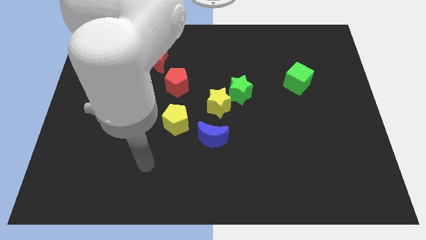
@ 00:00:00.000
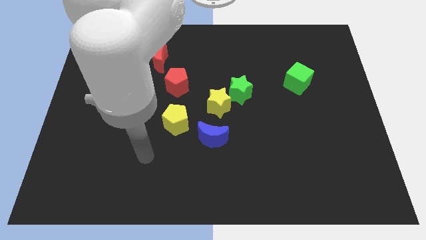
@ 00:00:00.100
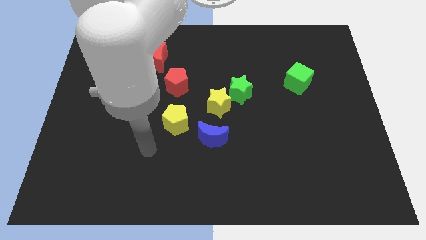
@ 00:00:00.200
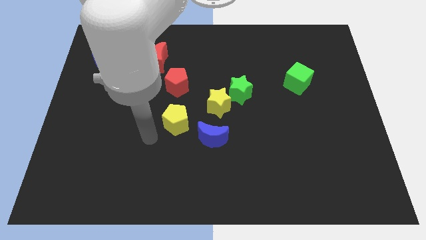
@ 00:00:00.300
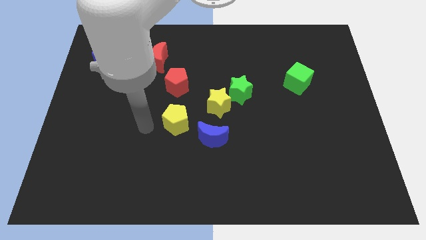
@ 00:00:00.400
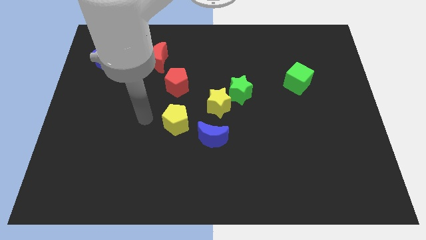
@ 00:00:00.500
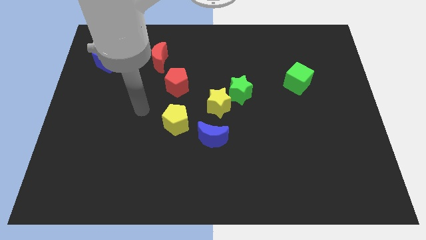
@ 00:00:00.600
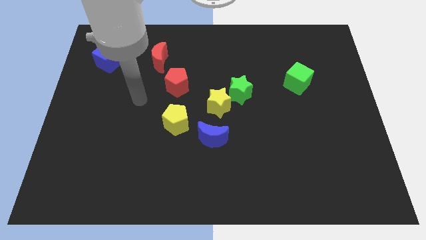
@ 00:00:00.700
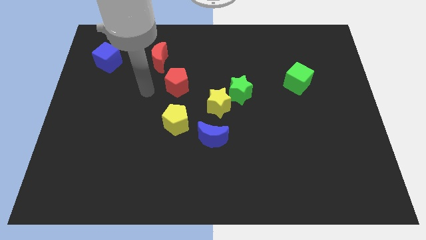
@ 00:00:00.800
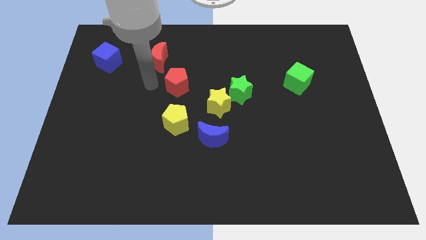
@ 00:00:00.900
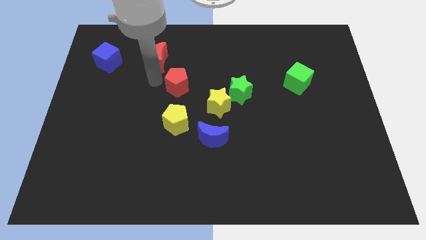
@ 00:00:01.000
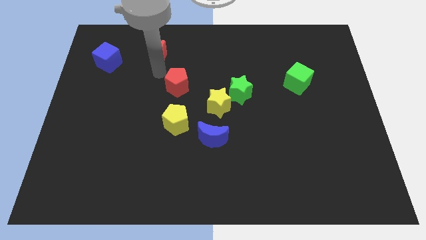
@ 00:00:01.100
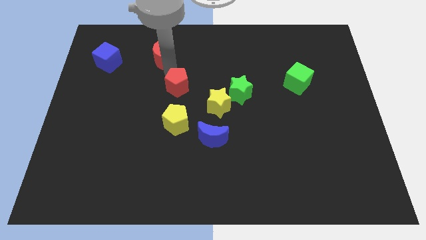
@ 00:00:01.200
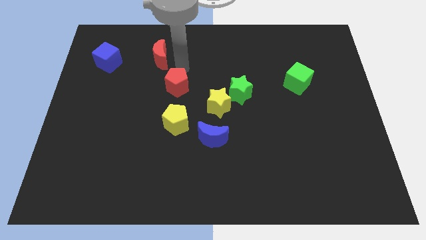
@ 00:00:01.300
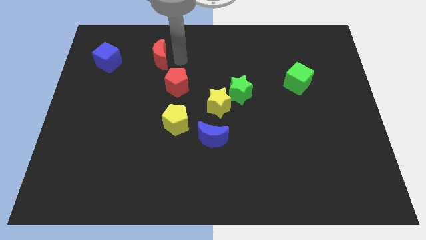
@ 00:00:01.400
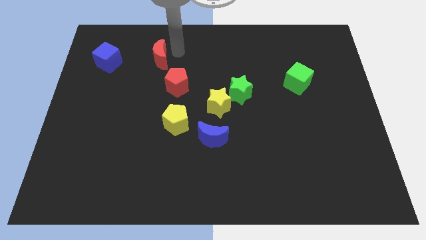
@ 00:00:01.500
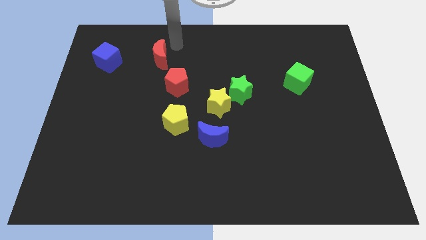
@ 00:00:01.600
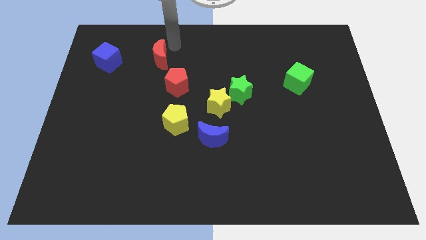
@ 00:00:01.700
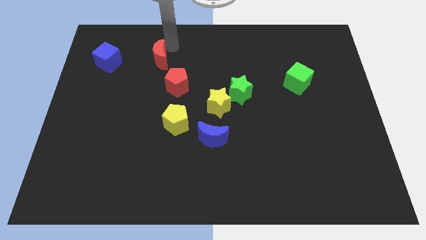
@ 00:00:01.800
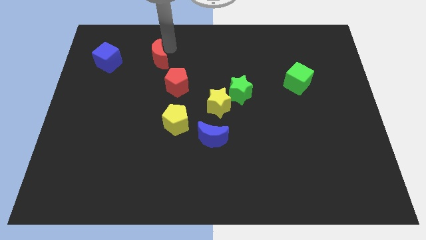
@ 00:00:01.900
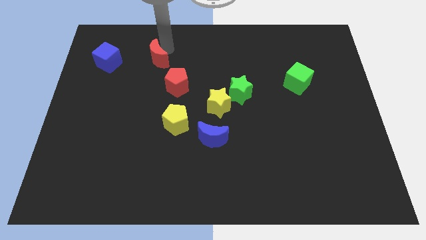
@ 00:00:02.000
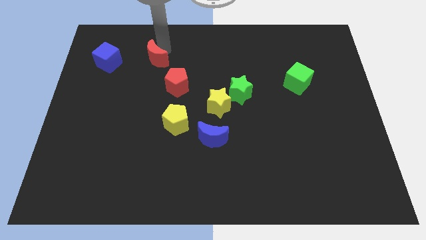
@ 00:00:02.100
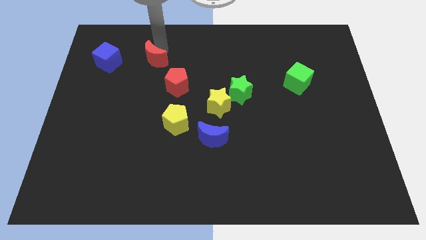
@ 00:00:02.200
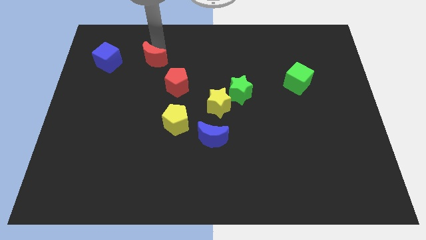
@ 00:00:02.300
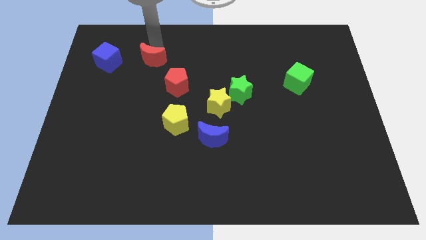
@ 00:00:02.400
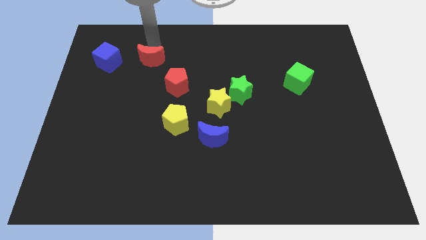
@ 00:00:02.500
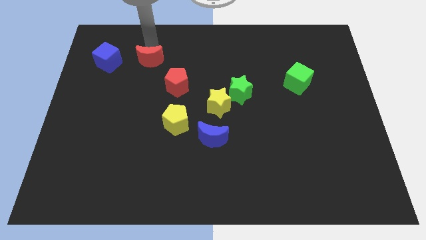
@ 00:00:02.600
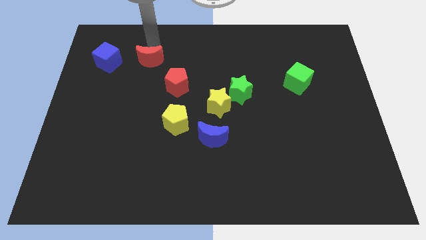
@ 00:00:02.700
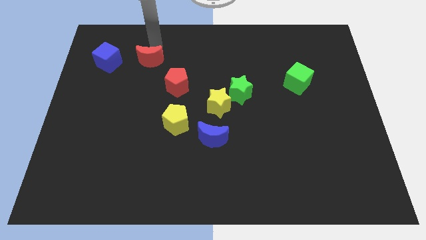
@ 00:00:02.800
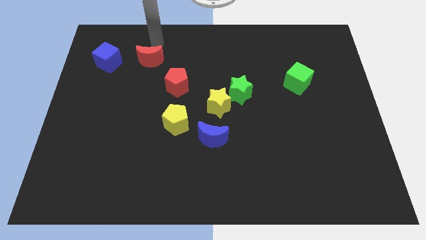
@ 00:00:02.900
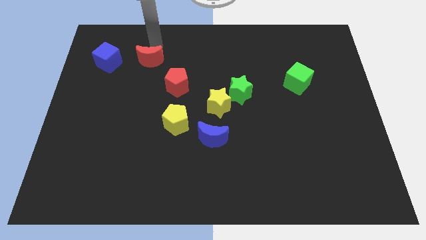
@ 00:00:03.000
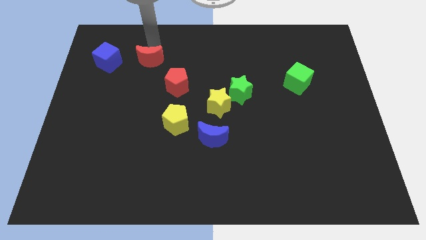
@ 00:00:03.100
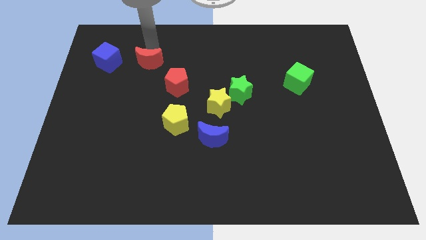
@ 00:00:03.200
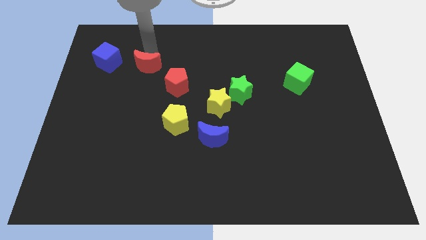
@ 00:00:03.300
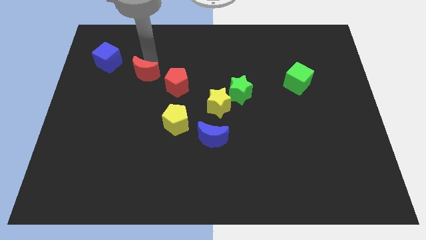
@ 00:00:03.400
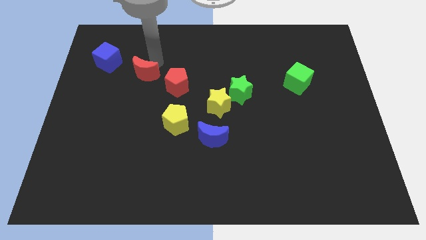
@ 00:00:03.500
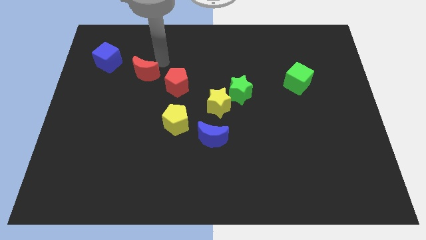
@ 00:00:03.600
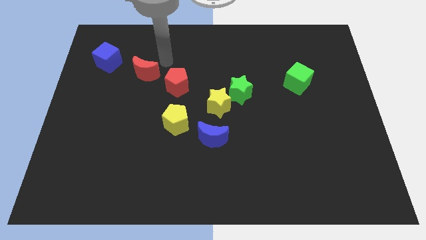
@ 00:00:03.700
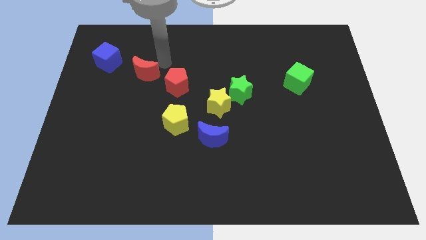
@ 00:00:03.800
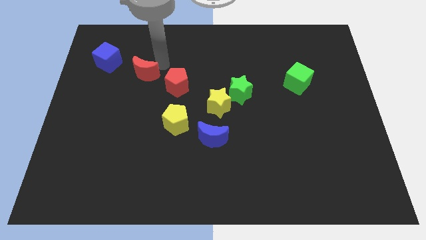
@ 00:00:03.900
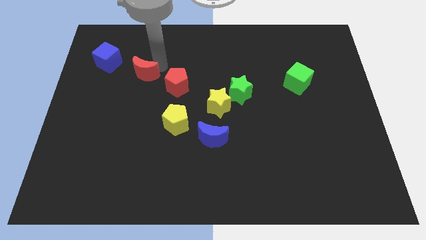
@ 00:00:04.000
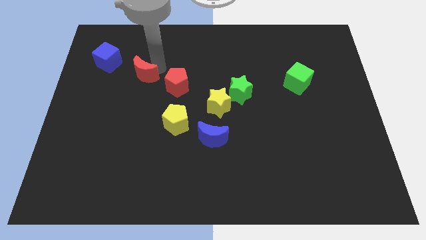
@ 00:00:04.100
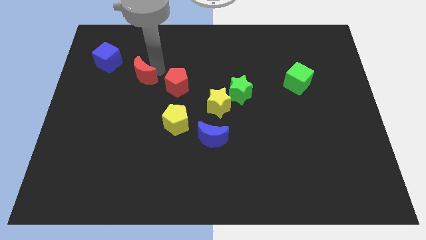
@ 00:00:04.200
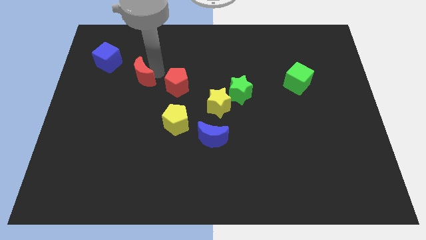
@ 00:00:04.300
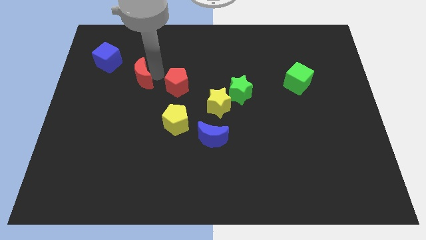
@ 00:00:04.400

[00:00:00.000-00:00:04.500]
push the red moon down and left a little bit

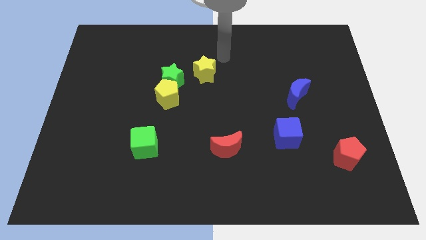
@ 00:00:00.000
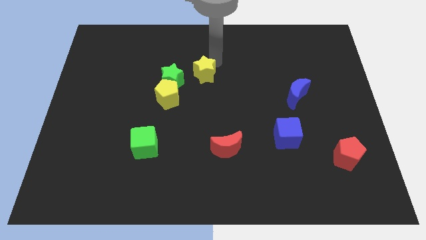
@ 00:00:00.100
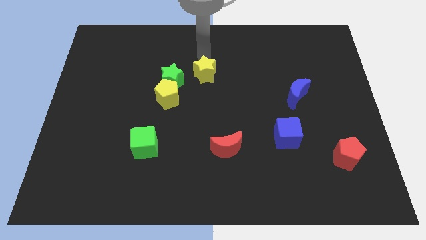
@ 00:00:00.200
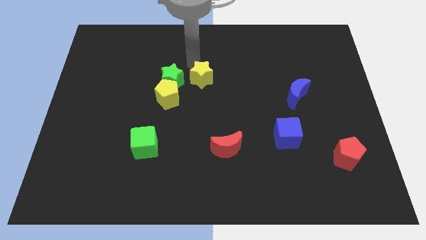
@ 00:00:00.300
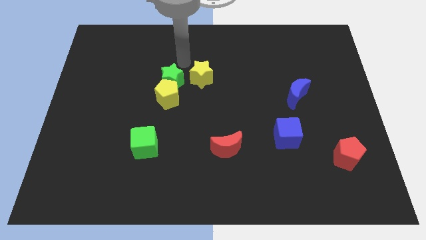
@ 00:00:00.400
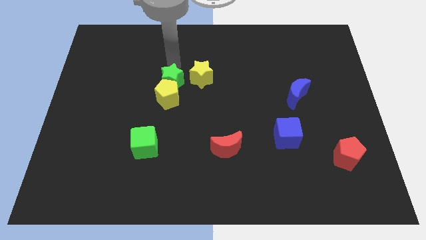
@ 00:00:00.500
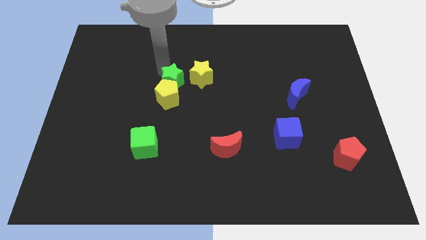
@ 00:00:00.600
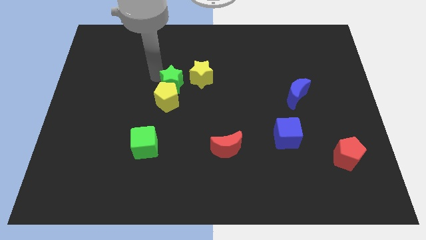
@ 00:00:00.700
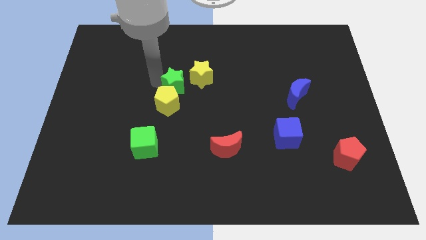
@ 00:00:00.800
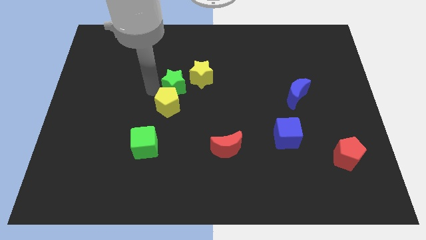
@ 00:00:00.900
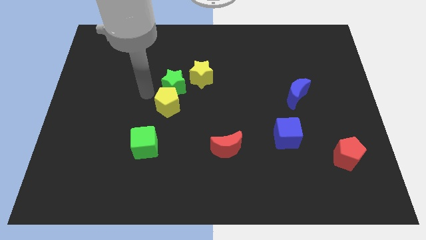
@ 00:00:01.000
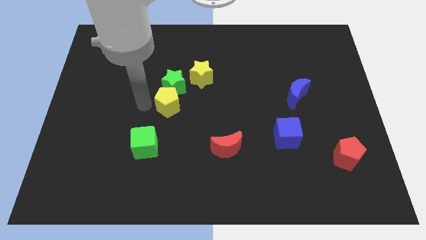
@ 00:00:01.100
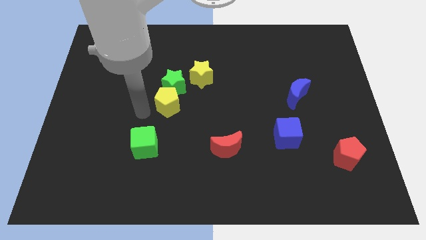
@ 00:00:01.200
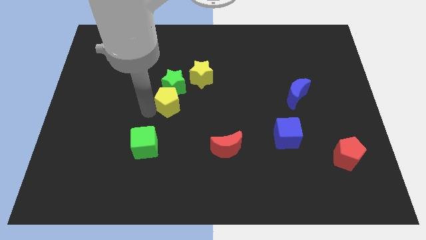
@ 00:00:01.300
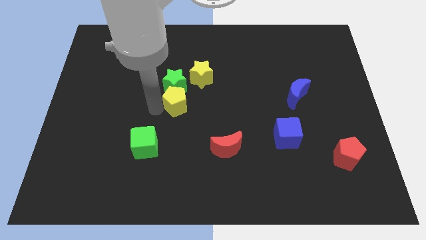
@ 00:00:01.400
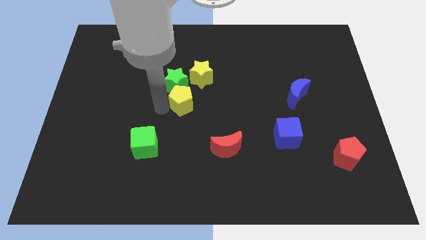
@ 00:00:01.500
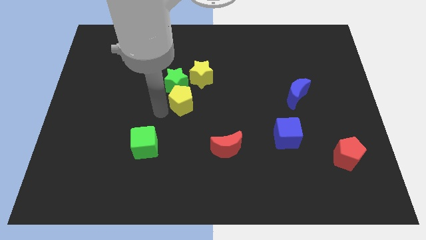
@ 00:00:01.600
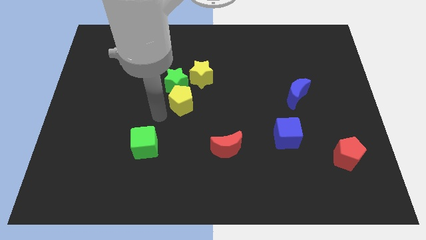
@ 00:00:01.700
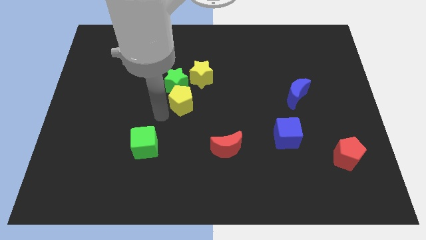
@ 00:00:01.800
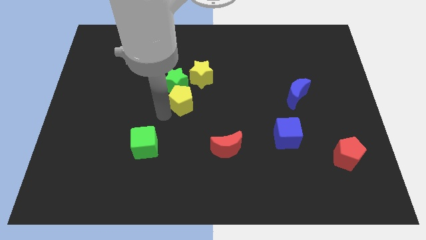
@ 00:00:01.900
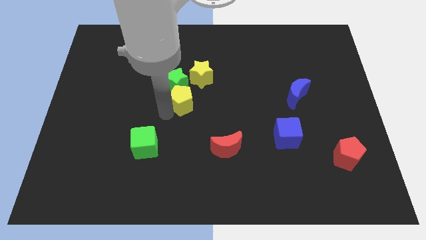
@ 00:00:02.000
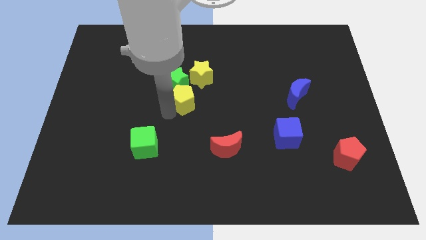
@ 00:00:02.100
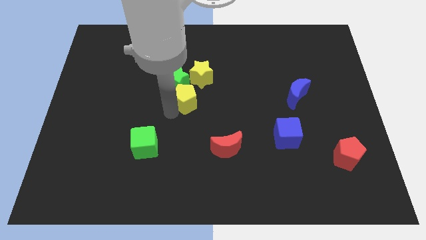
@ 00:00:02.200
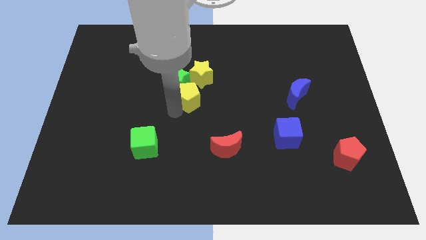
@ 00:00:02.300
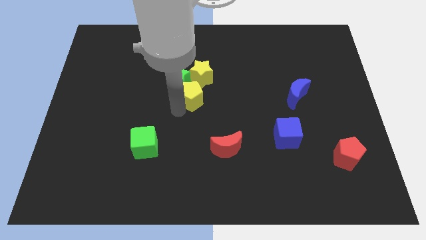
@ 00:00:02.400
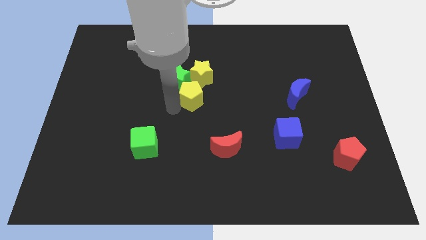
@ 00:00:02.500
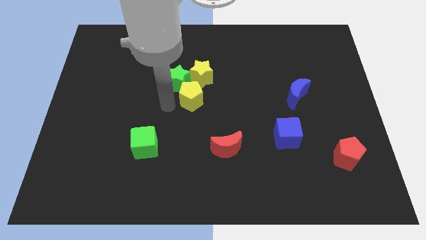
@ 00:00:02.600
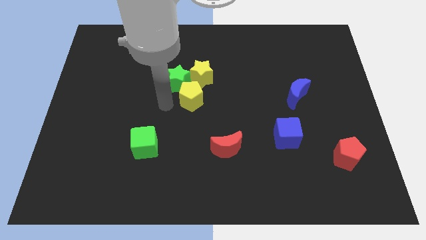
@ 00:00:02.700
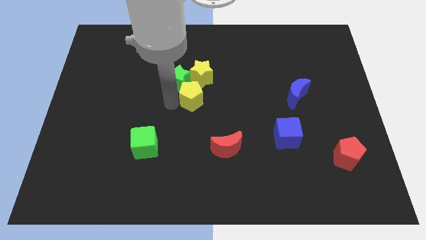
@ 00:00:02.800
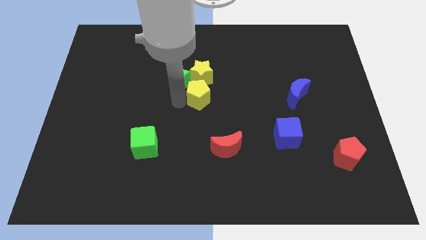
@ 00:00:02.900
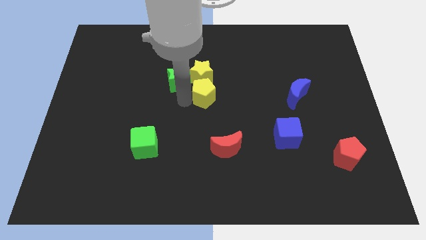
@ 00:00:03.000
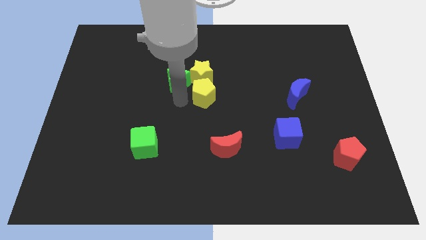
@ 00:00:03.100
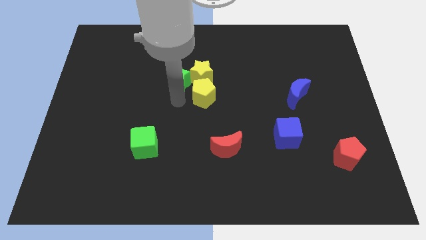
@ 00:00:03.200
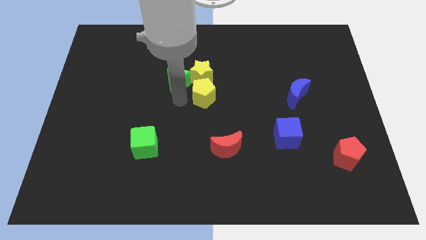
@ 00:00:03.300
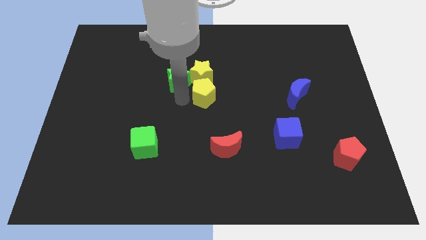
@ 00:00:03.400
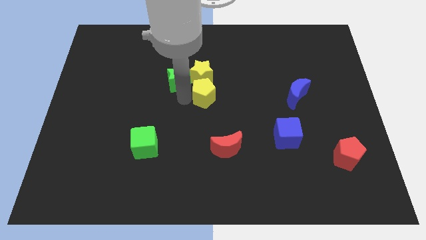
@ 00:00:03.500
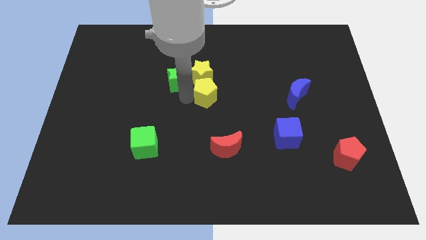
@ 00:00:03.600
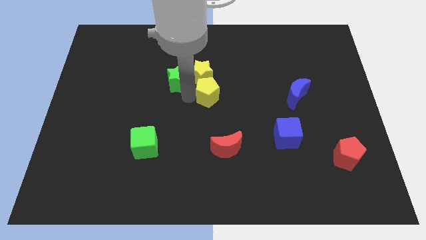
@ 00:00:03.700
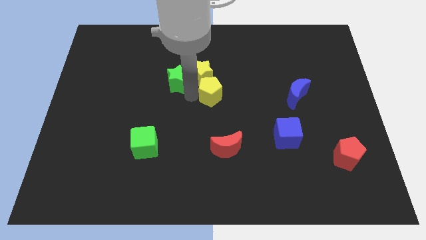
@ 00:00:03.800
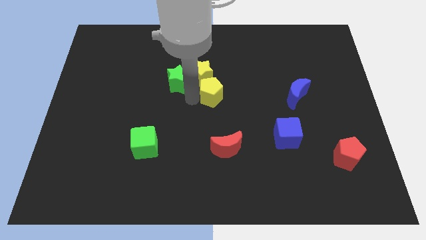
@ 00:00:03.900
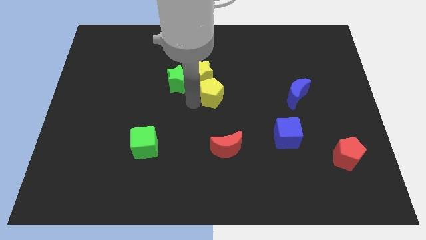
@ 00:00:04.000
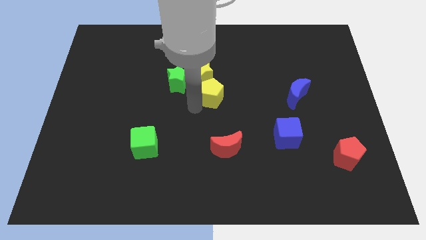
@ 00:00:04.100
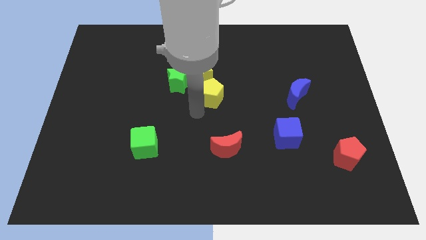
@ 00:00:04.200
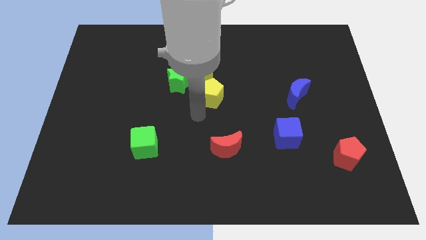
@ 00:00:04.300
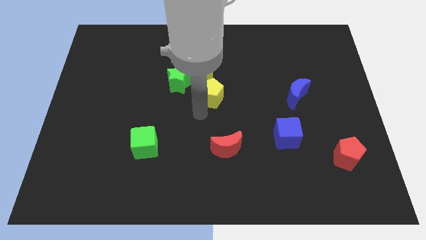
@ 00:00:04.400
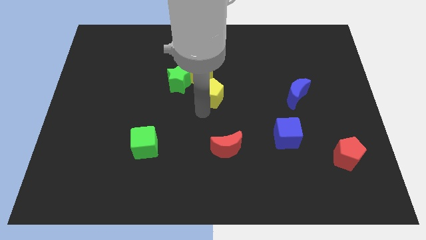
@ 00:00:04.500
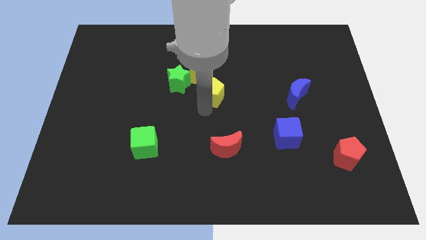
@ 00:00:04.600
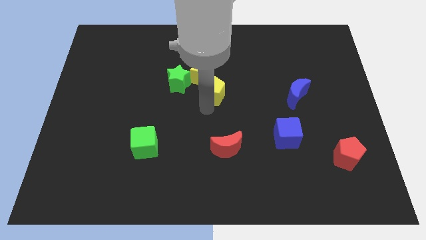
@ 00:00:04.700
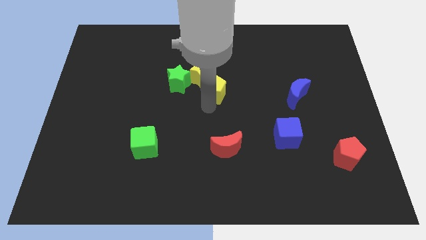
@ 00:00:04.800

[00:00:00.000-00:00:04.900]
push the yellow pentagon upwards and then to the right a little
